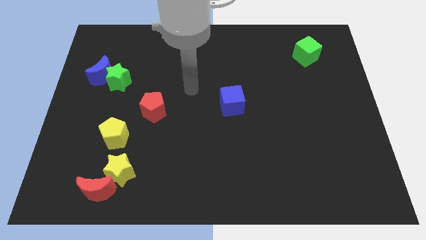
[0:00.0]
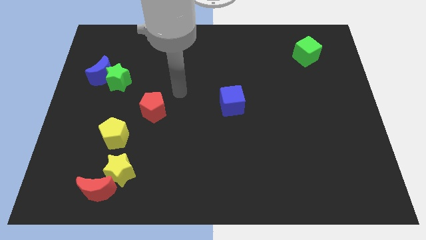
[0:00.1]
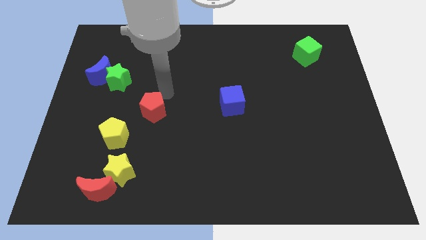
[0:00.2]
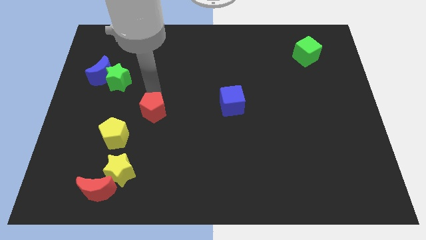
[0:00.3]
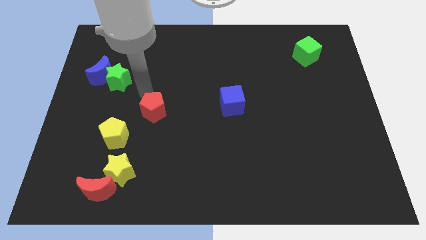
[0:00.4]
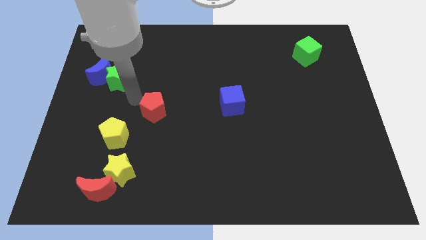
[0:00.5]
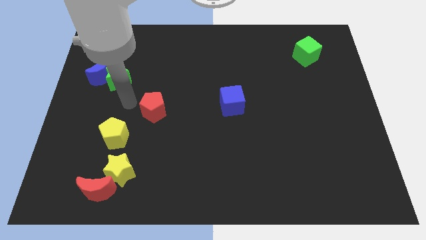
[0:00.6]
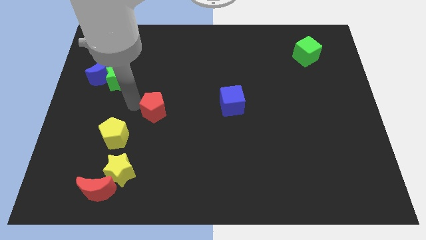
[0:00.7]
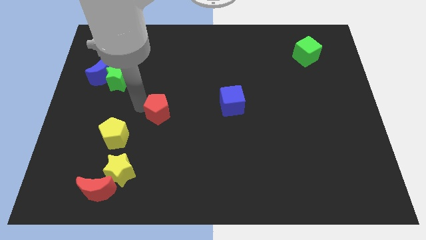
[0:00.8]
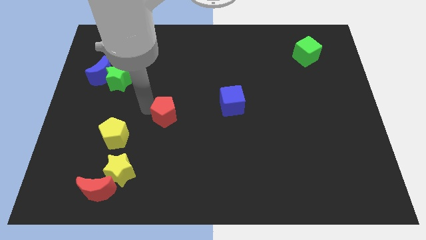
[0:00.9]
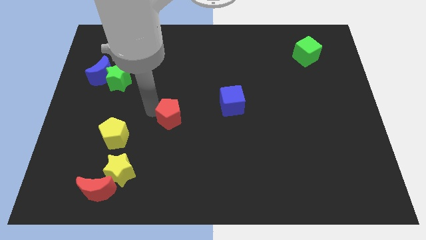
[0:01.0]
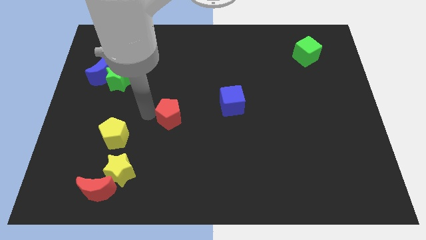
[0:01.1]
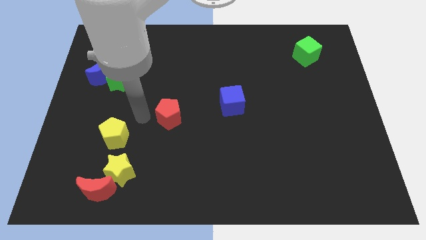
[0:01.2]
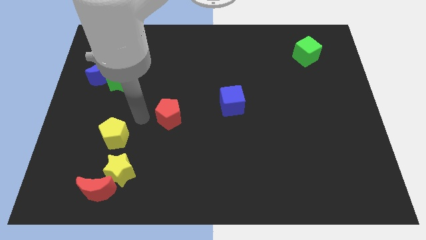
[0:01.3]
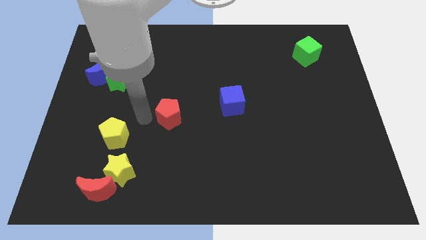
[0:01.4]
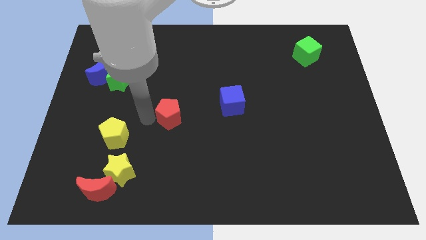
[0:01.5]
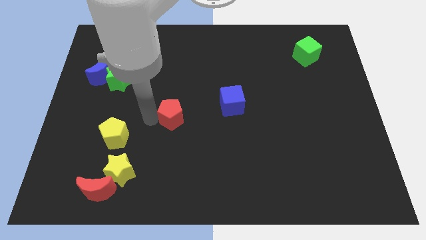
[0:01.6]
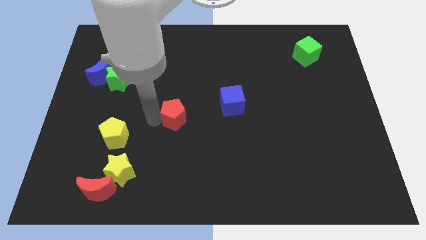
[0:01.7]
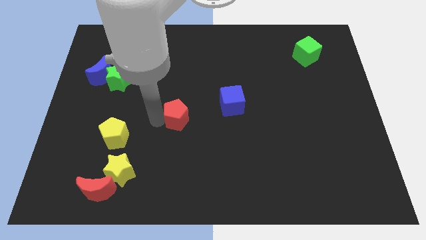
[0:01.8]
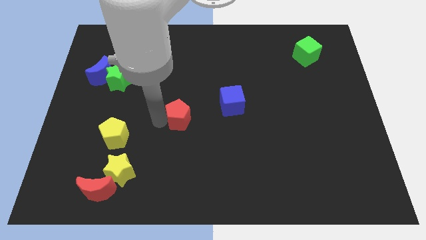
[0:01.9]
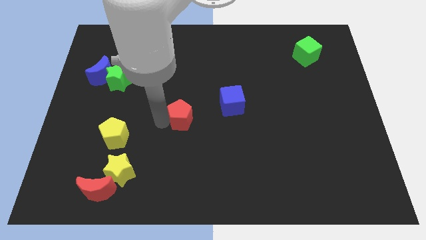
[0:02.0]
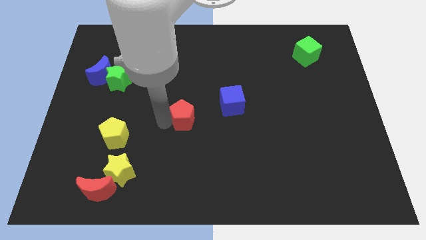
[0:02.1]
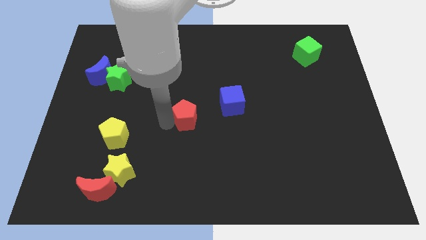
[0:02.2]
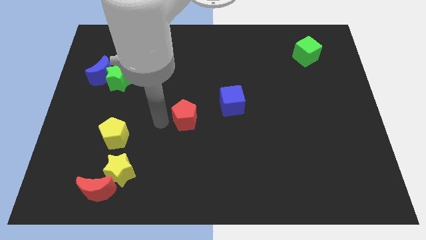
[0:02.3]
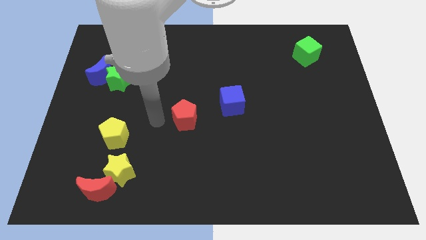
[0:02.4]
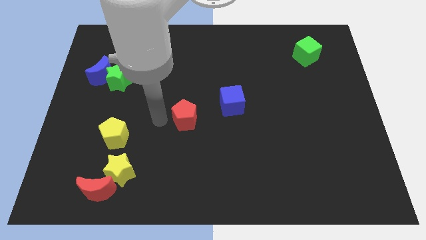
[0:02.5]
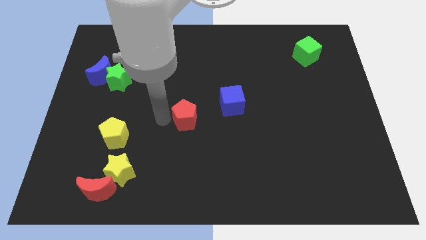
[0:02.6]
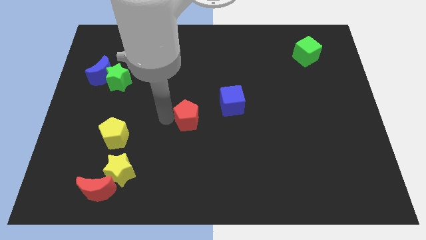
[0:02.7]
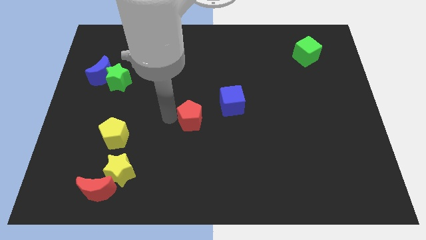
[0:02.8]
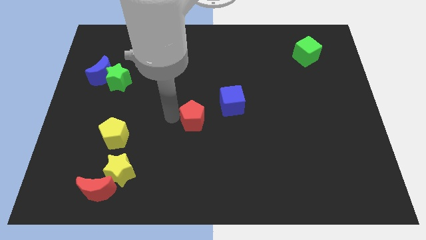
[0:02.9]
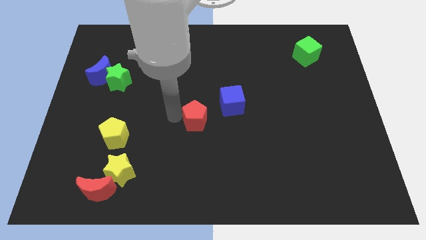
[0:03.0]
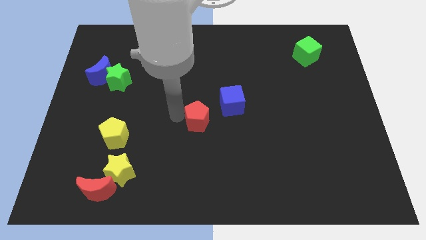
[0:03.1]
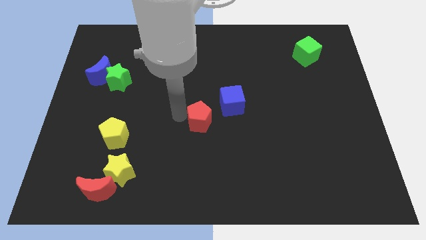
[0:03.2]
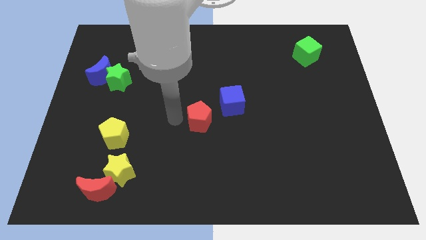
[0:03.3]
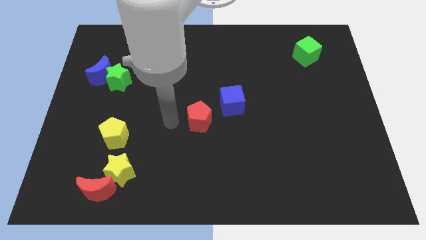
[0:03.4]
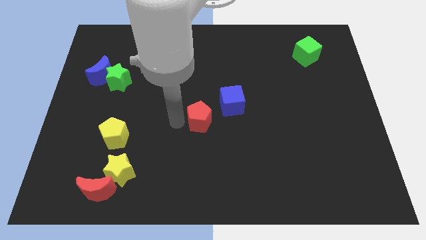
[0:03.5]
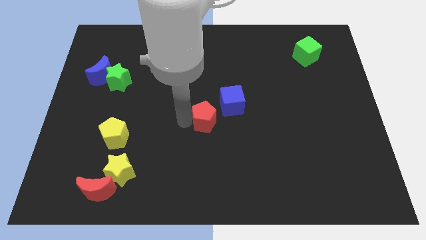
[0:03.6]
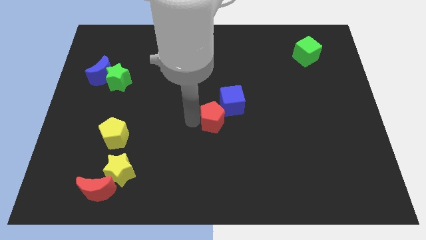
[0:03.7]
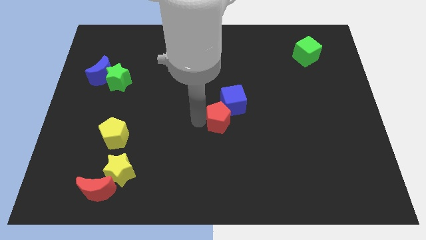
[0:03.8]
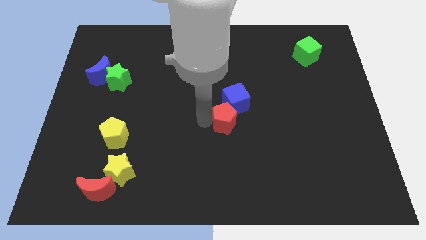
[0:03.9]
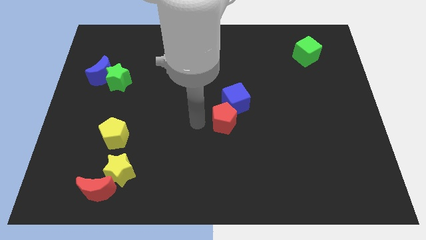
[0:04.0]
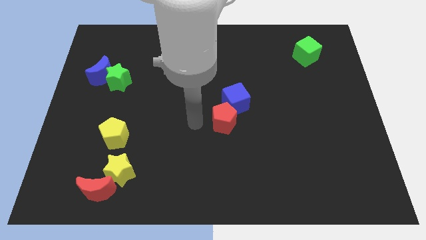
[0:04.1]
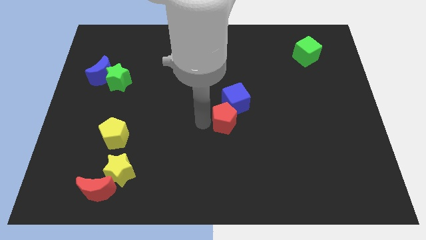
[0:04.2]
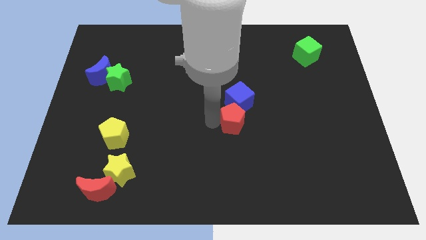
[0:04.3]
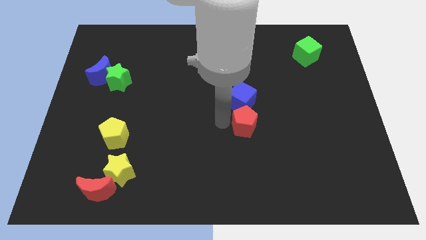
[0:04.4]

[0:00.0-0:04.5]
move the red pentagon to the right

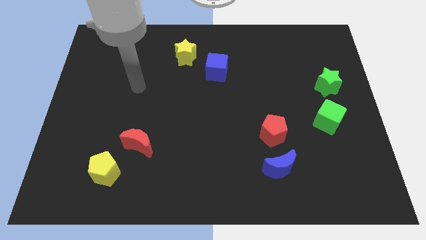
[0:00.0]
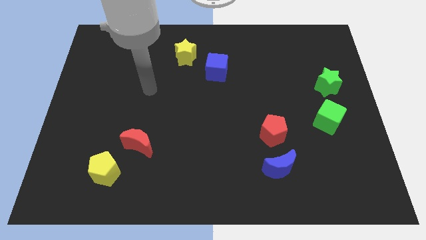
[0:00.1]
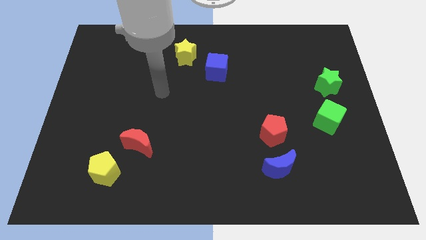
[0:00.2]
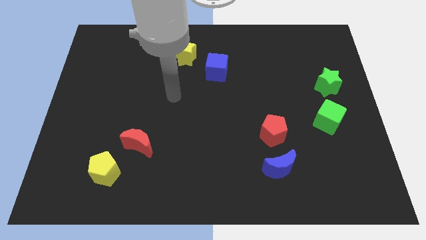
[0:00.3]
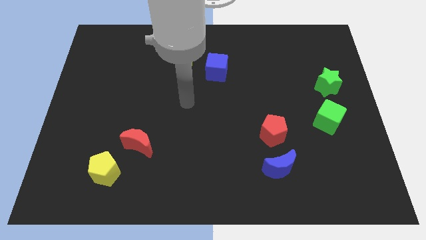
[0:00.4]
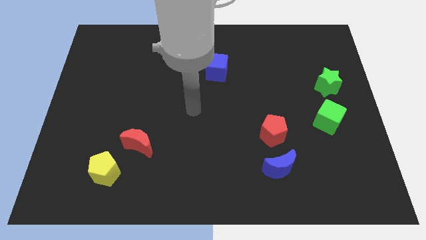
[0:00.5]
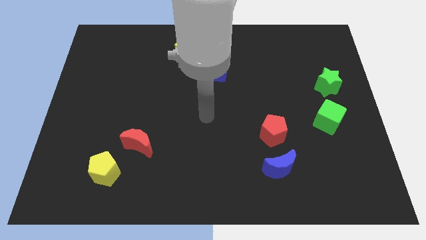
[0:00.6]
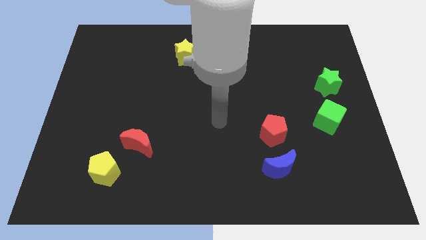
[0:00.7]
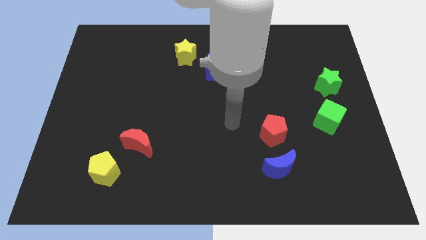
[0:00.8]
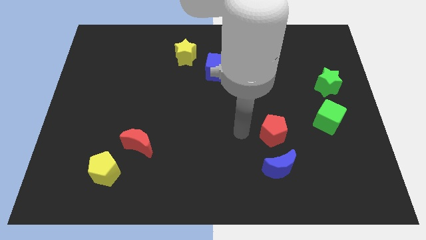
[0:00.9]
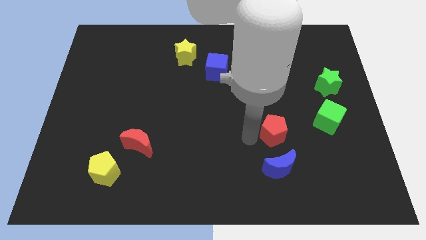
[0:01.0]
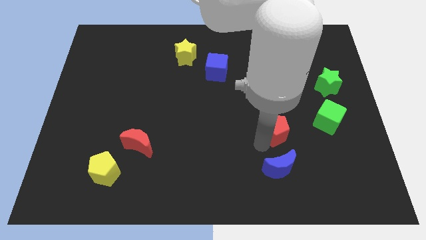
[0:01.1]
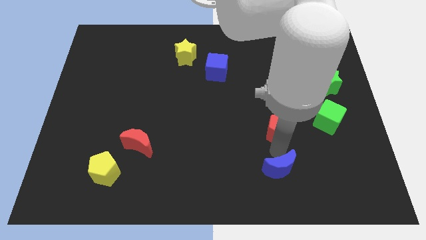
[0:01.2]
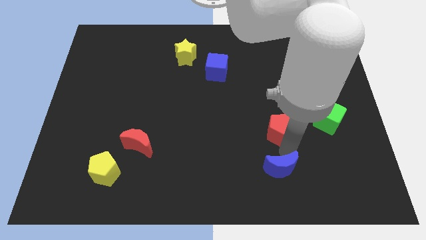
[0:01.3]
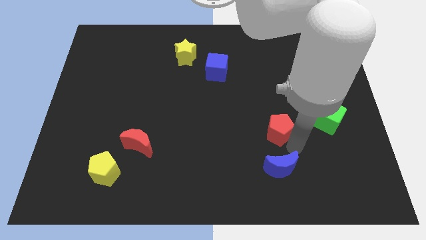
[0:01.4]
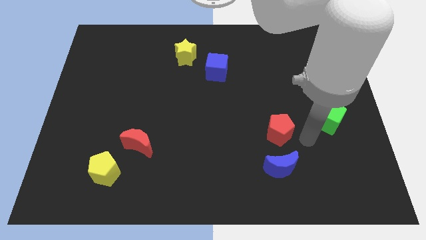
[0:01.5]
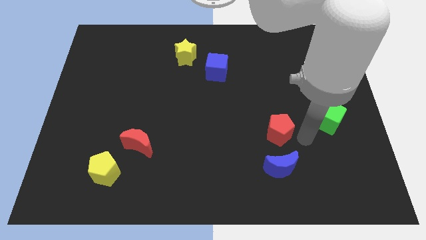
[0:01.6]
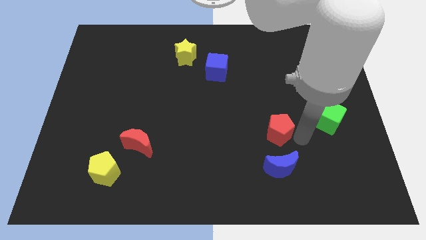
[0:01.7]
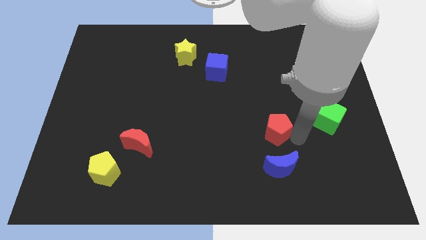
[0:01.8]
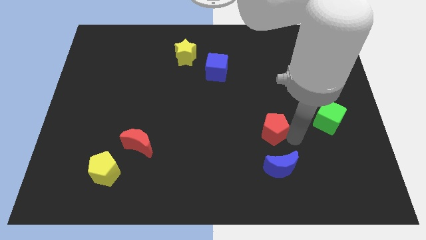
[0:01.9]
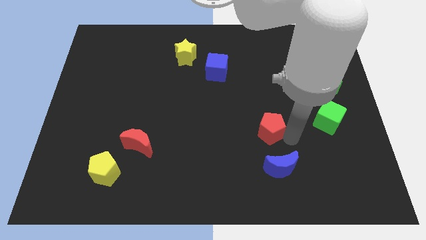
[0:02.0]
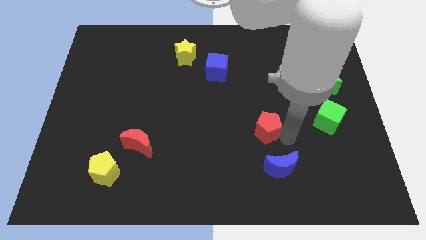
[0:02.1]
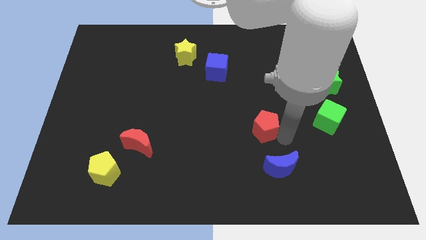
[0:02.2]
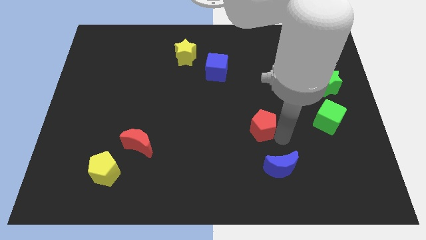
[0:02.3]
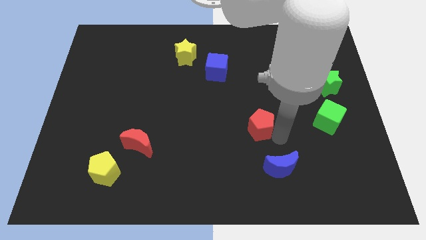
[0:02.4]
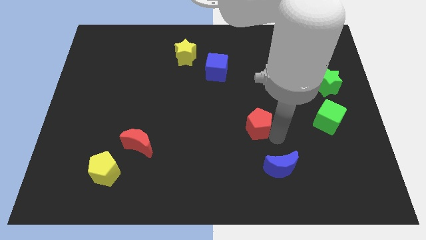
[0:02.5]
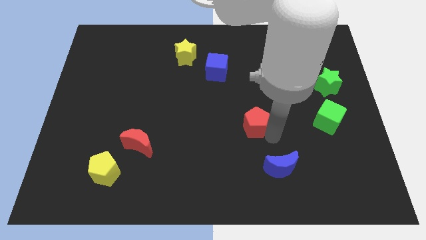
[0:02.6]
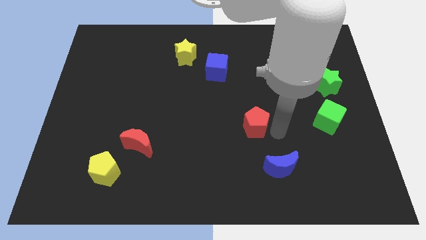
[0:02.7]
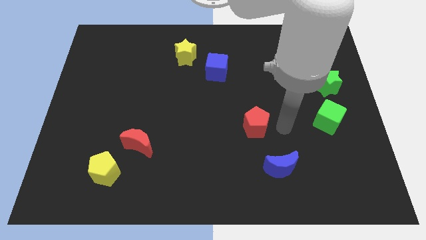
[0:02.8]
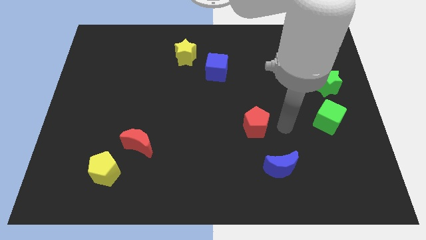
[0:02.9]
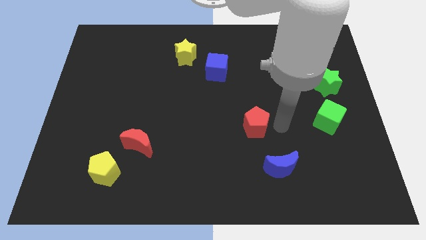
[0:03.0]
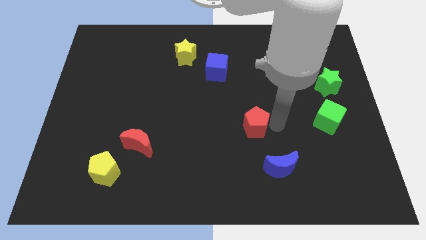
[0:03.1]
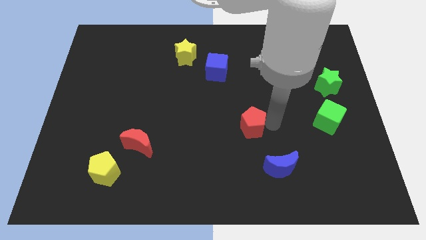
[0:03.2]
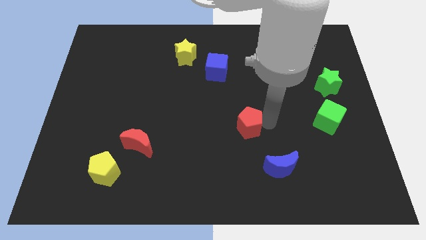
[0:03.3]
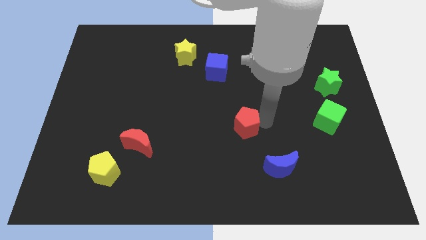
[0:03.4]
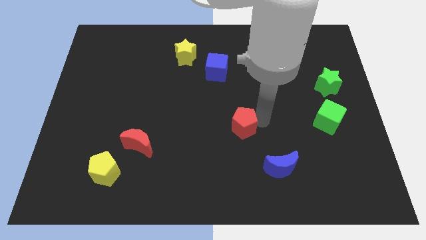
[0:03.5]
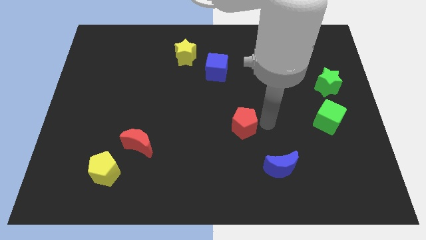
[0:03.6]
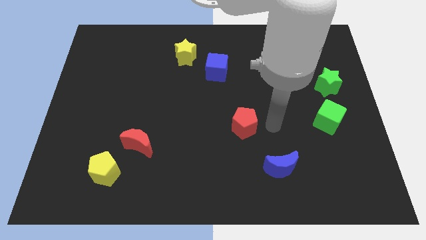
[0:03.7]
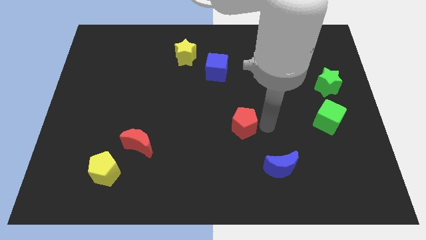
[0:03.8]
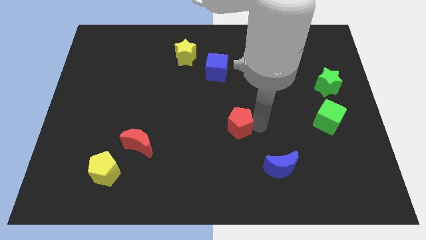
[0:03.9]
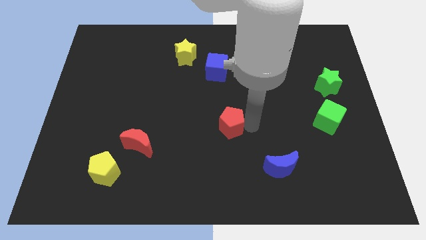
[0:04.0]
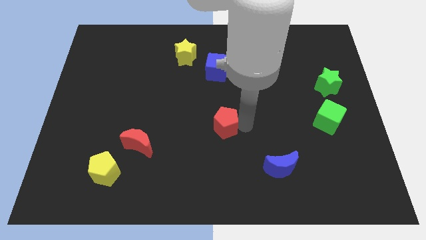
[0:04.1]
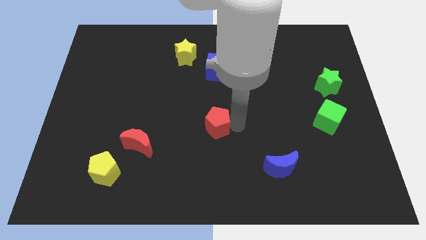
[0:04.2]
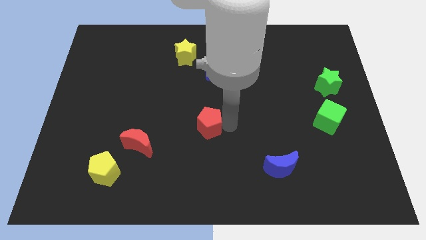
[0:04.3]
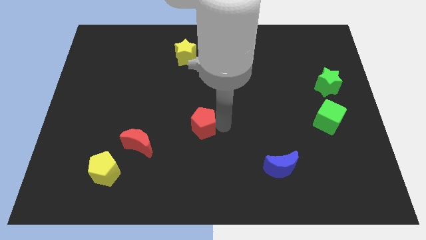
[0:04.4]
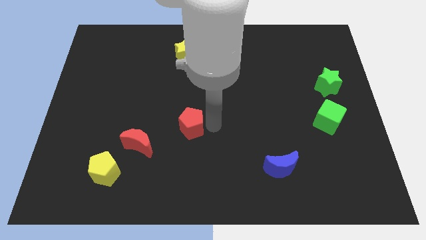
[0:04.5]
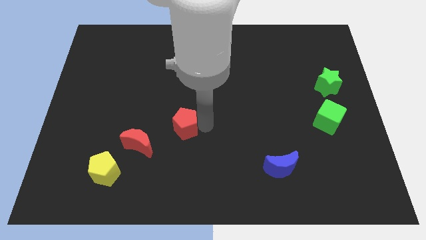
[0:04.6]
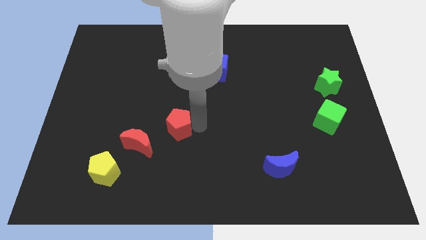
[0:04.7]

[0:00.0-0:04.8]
push the red pentagon left
